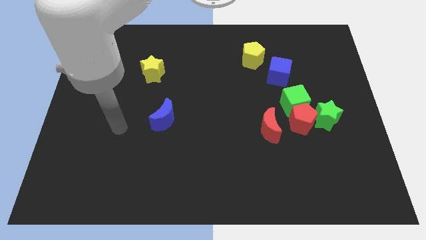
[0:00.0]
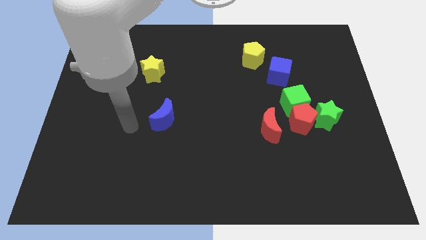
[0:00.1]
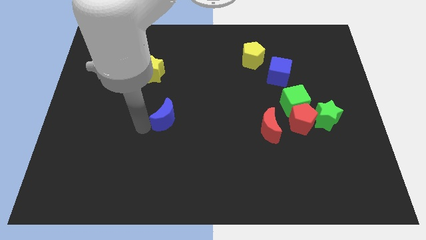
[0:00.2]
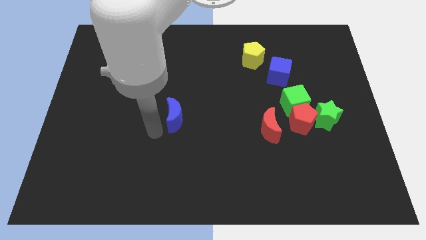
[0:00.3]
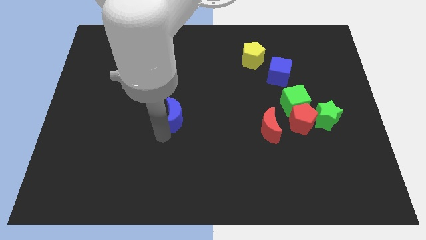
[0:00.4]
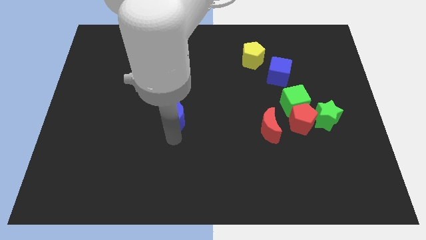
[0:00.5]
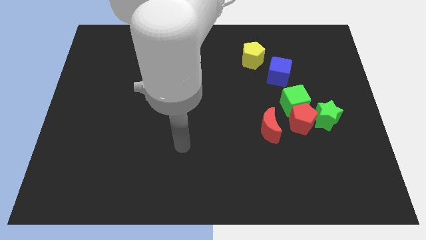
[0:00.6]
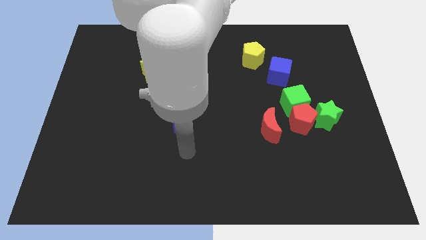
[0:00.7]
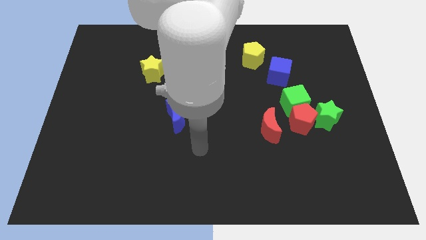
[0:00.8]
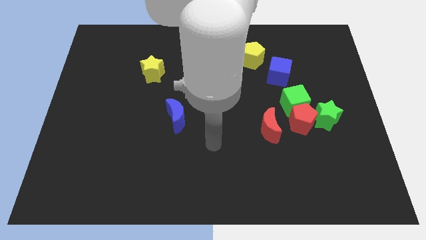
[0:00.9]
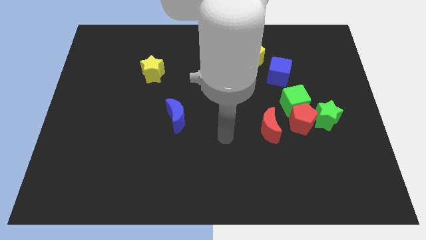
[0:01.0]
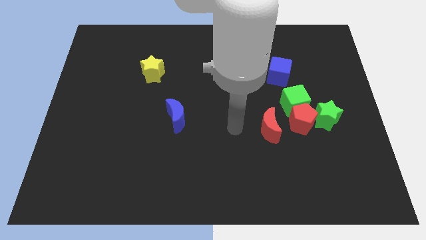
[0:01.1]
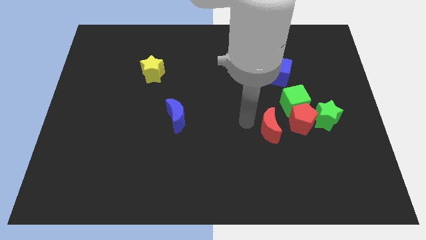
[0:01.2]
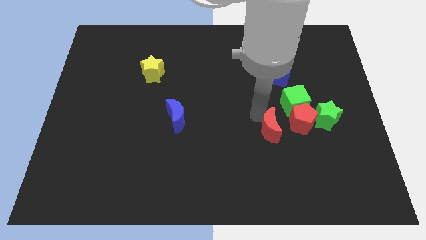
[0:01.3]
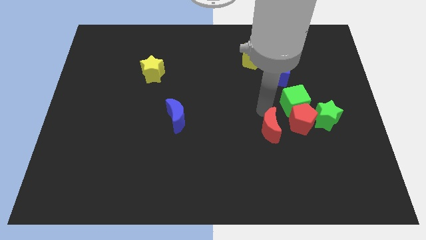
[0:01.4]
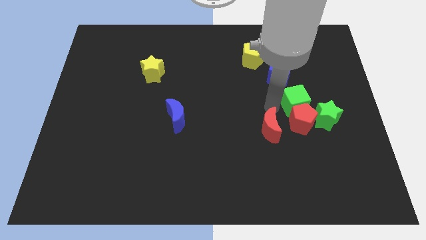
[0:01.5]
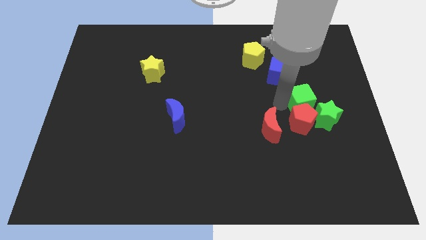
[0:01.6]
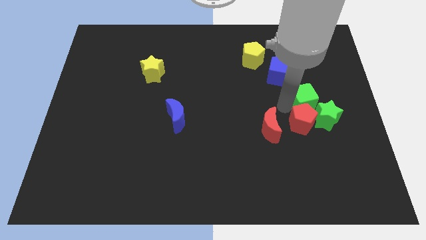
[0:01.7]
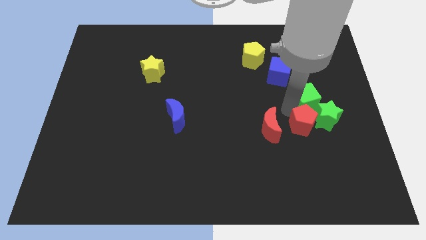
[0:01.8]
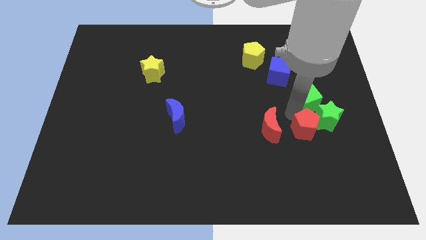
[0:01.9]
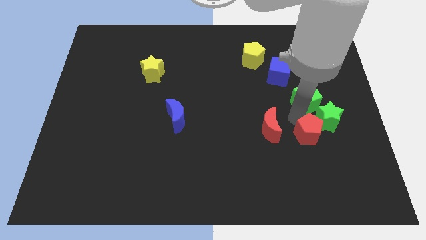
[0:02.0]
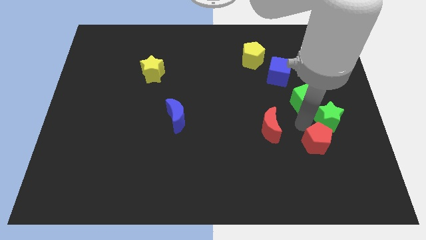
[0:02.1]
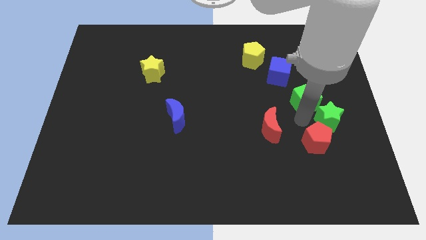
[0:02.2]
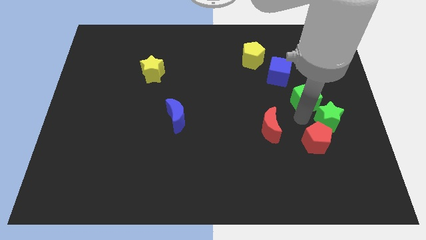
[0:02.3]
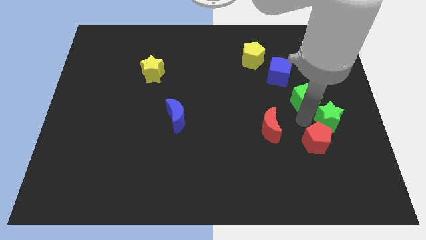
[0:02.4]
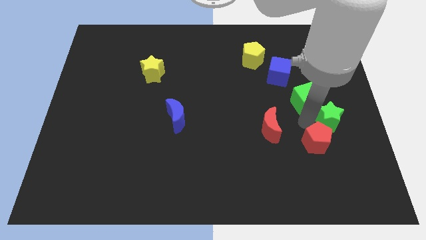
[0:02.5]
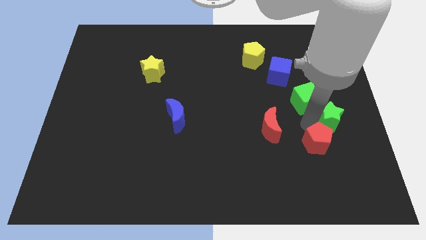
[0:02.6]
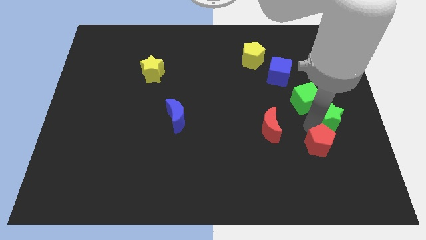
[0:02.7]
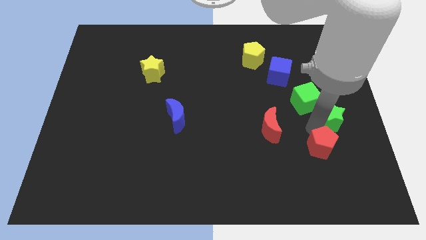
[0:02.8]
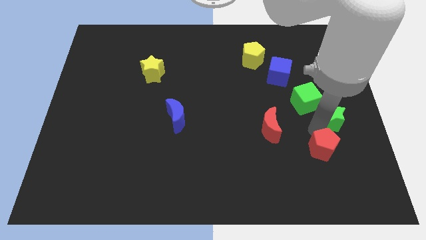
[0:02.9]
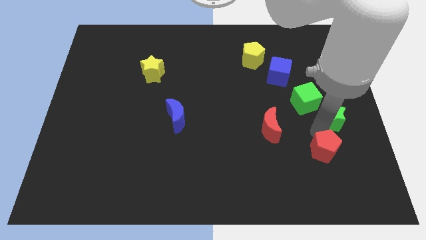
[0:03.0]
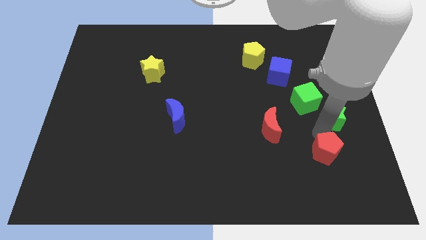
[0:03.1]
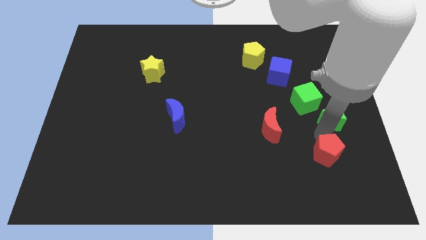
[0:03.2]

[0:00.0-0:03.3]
pull the red pentagon apart from the green cube, green star, and red moon

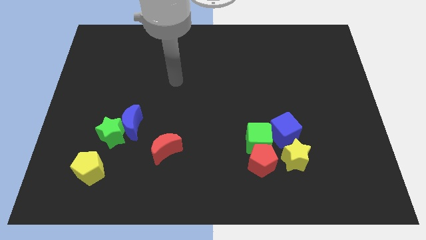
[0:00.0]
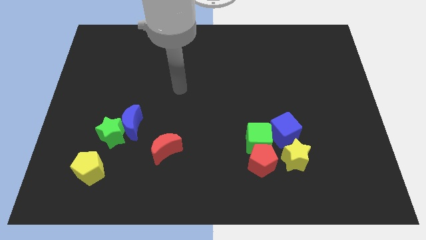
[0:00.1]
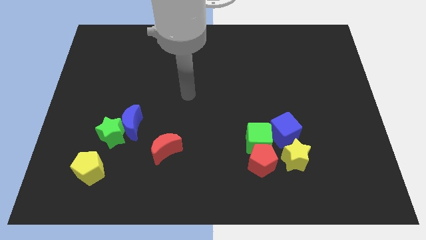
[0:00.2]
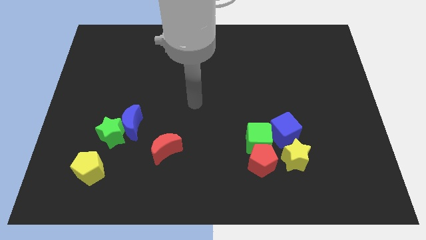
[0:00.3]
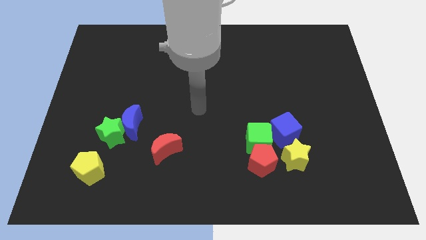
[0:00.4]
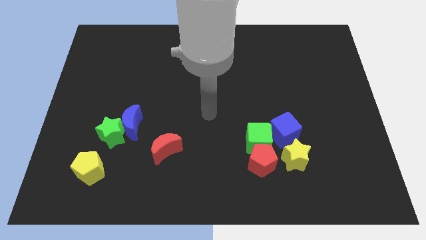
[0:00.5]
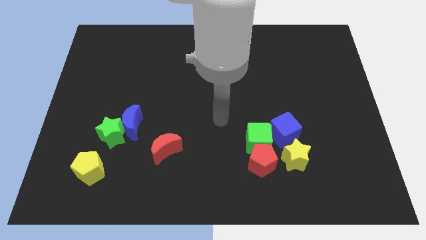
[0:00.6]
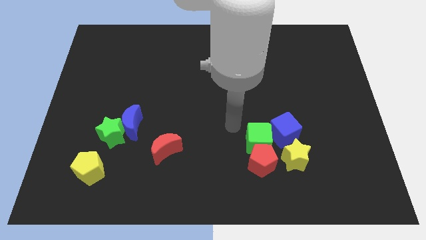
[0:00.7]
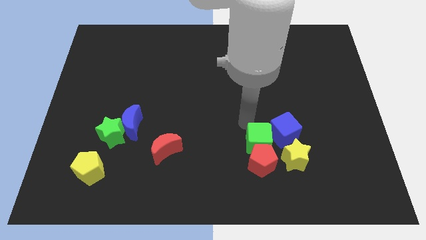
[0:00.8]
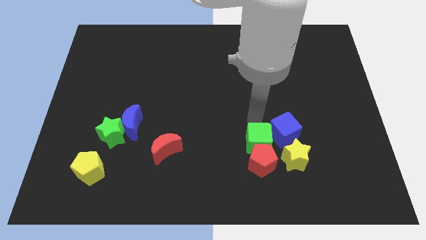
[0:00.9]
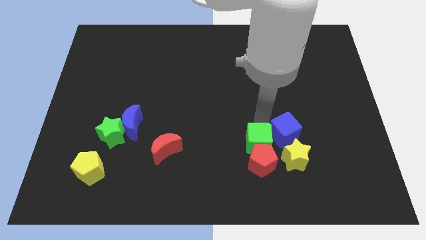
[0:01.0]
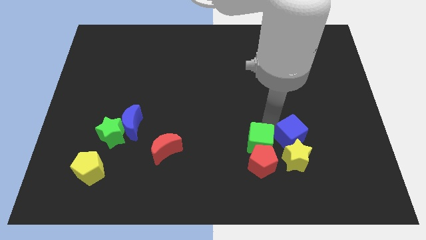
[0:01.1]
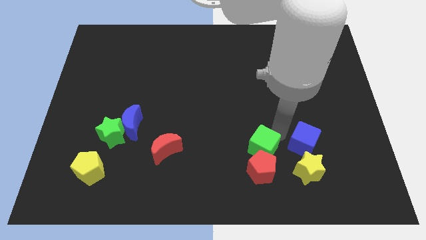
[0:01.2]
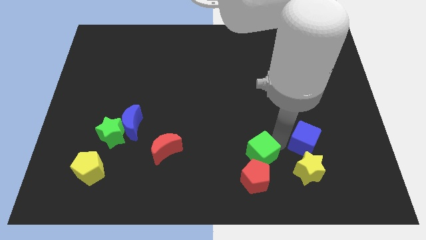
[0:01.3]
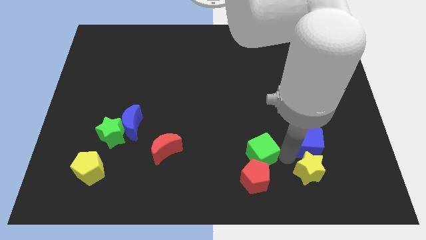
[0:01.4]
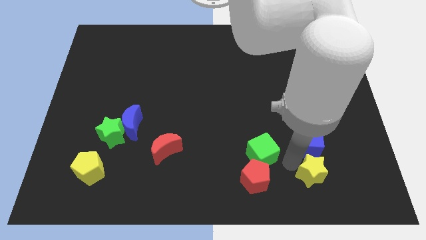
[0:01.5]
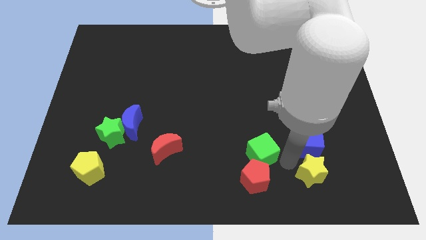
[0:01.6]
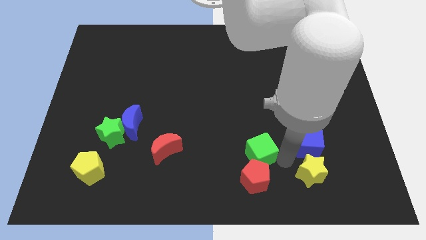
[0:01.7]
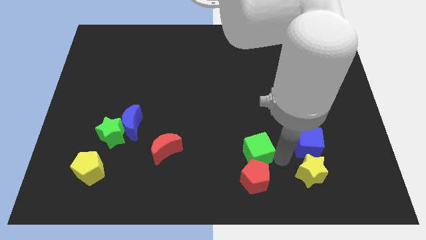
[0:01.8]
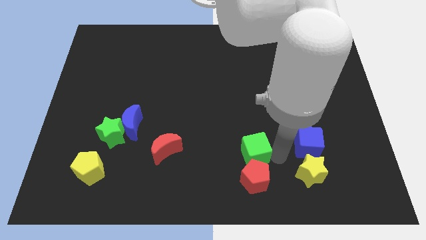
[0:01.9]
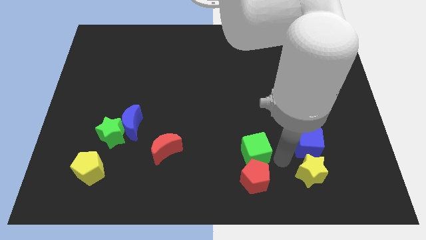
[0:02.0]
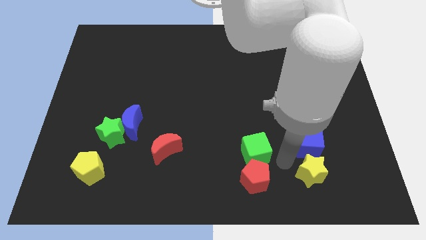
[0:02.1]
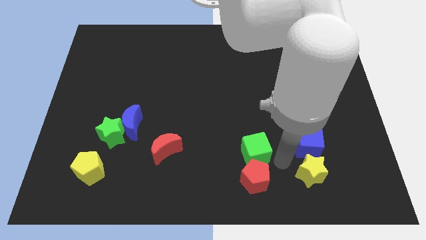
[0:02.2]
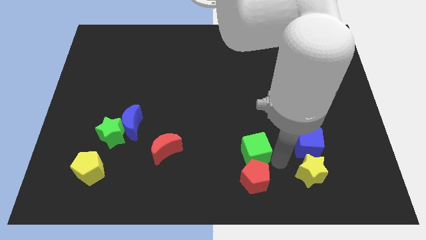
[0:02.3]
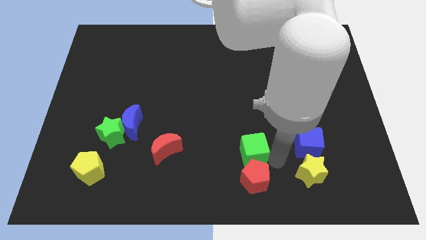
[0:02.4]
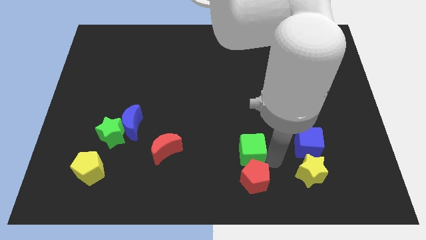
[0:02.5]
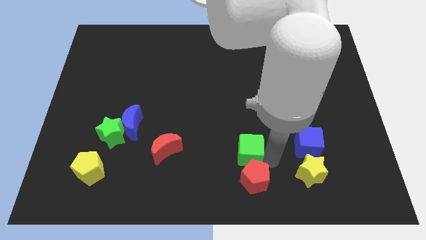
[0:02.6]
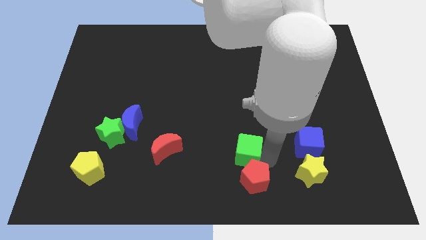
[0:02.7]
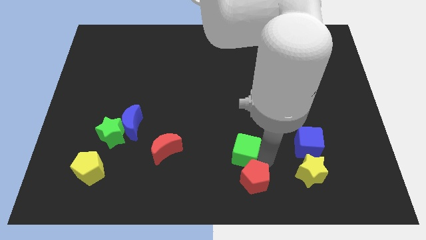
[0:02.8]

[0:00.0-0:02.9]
separate the green cube from the clump

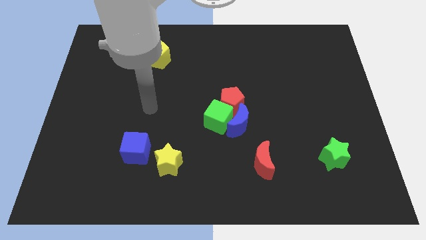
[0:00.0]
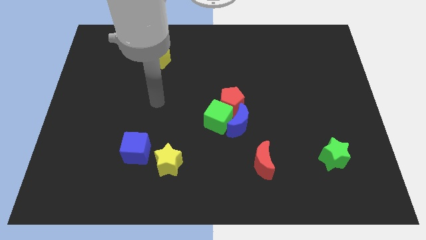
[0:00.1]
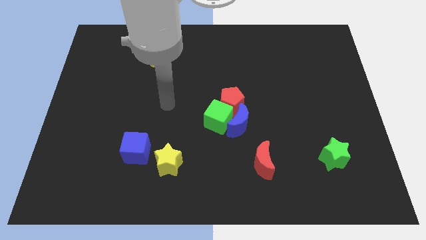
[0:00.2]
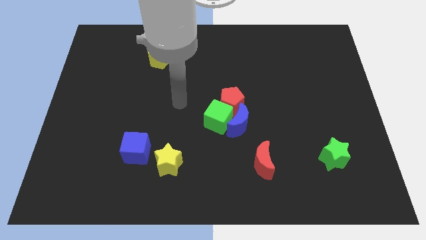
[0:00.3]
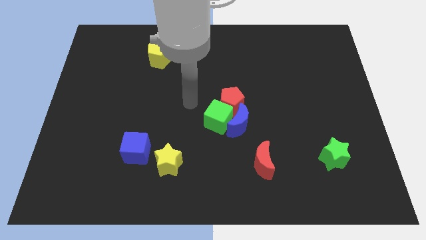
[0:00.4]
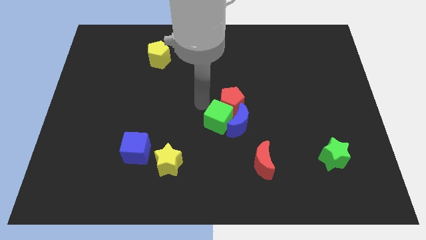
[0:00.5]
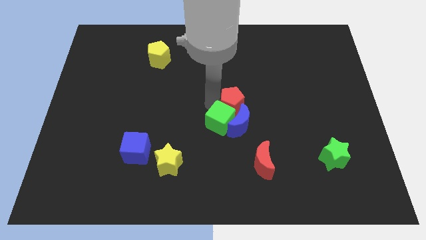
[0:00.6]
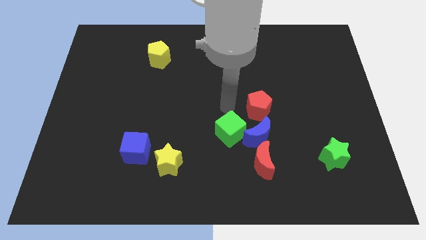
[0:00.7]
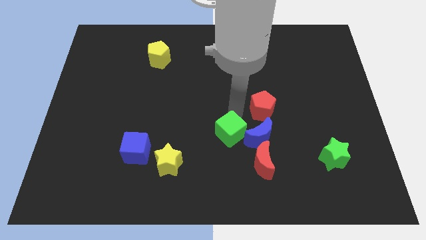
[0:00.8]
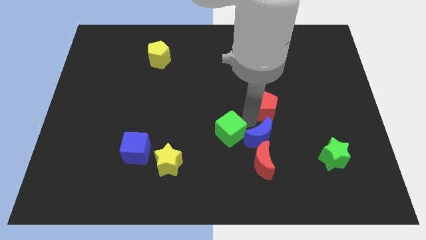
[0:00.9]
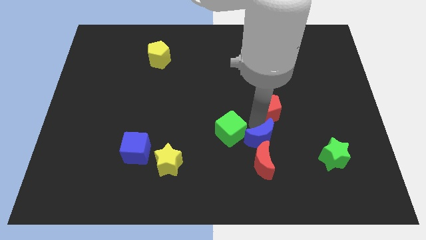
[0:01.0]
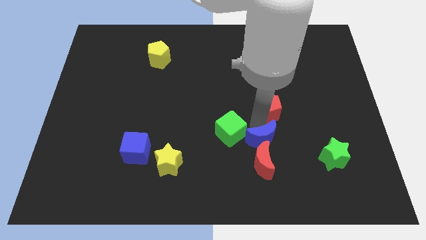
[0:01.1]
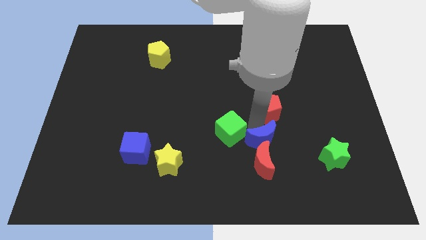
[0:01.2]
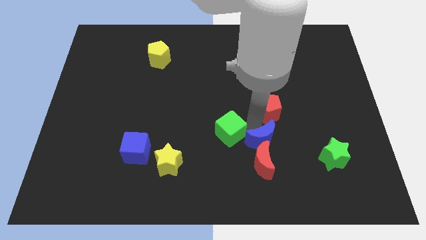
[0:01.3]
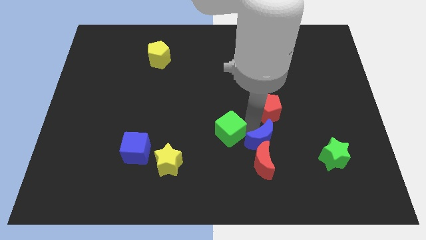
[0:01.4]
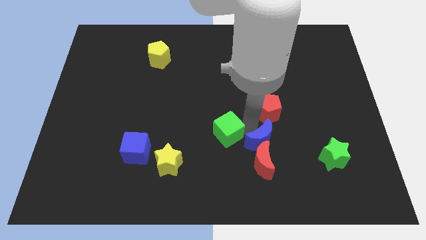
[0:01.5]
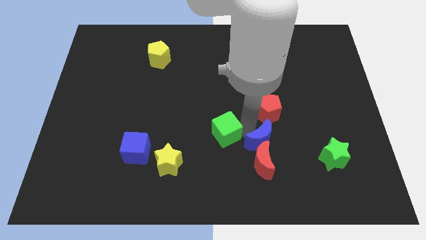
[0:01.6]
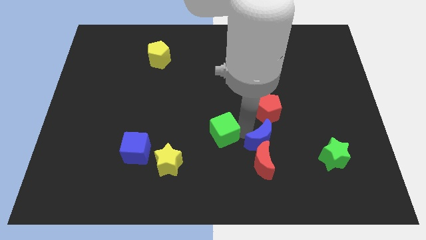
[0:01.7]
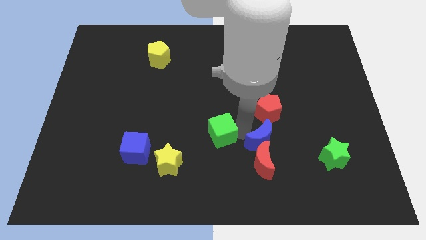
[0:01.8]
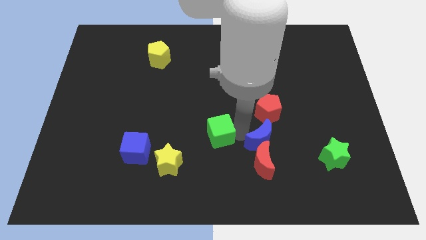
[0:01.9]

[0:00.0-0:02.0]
separate the green cube from the blue moon and red pentagon

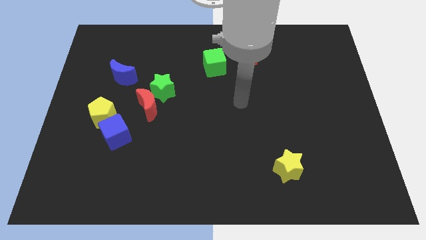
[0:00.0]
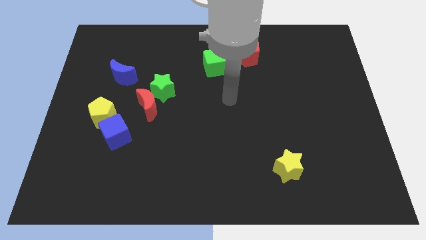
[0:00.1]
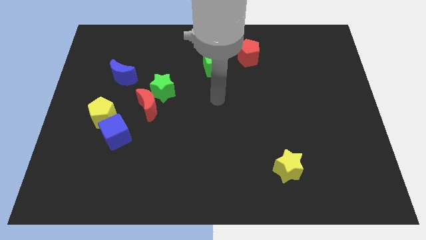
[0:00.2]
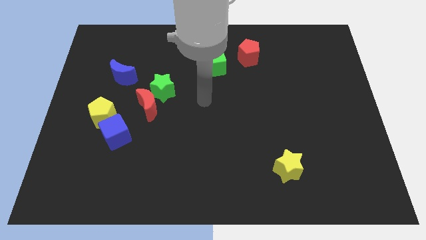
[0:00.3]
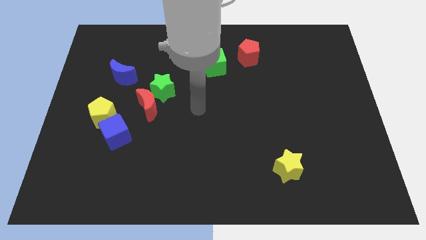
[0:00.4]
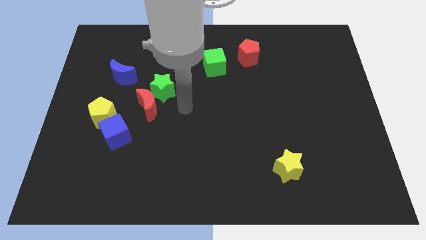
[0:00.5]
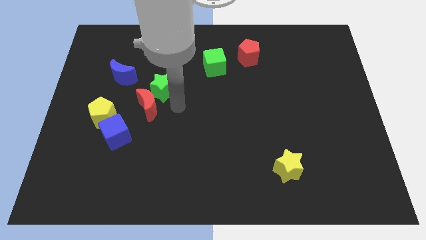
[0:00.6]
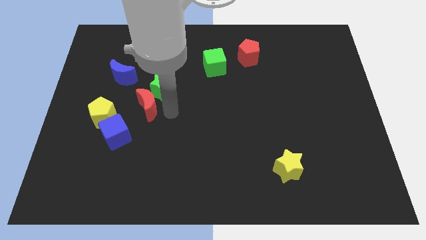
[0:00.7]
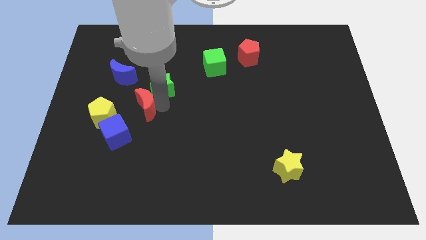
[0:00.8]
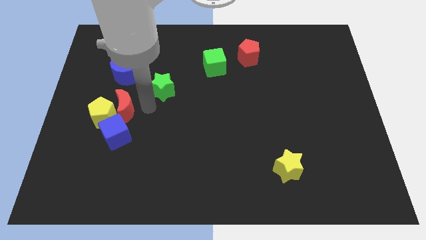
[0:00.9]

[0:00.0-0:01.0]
pull the green star apart from the red moon
